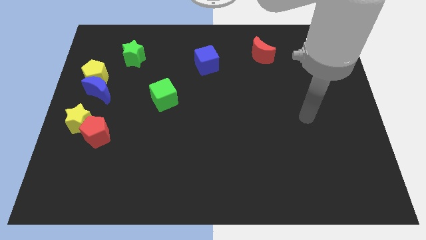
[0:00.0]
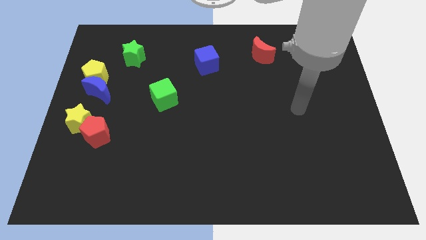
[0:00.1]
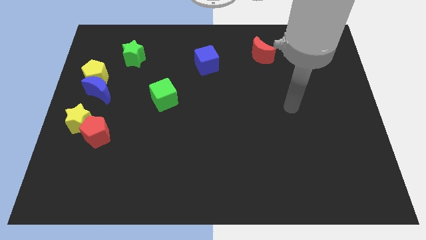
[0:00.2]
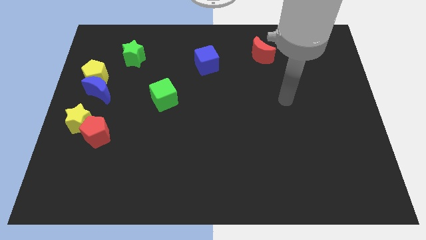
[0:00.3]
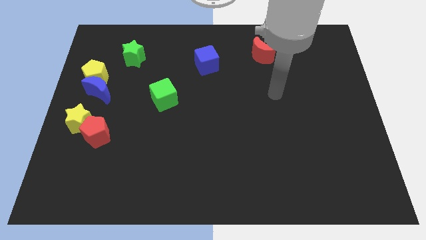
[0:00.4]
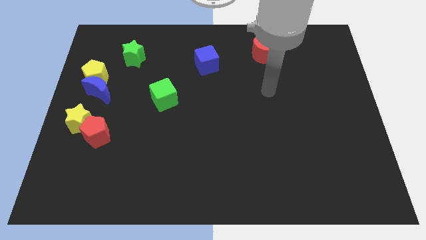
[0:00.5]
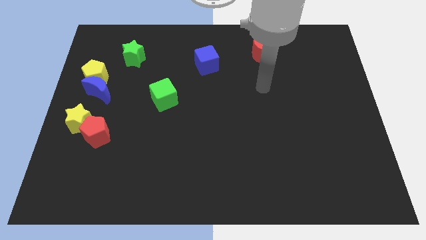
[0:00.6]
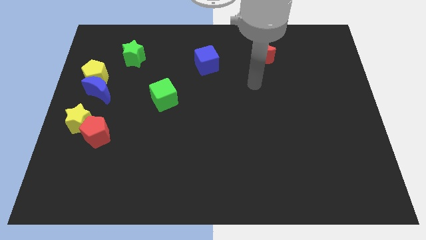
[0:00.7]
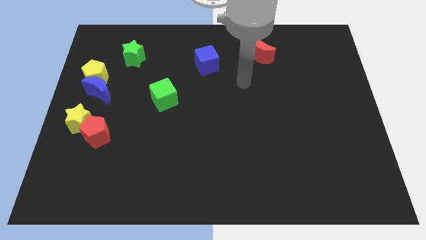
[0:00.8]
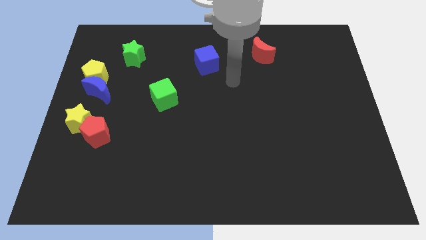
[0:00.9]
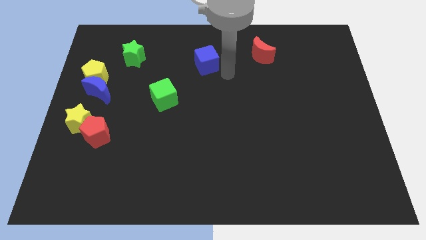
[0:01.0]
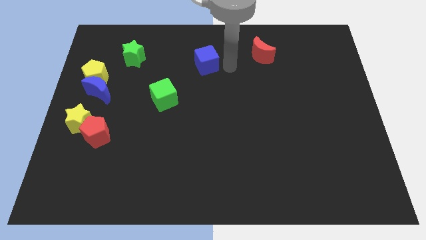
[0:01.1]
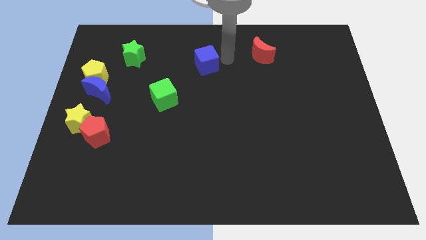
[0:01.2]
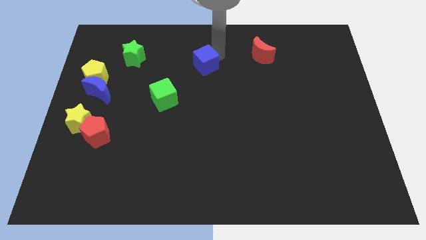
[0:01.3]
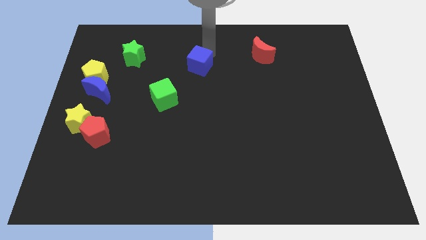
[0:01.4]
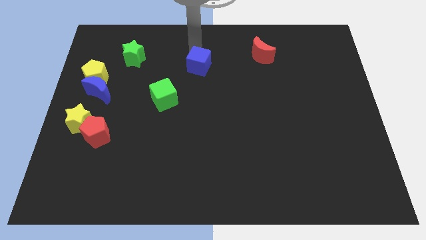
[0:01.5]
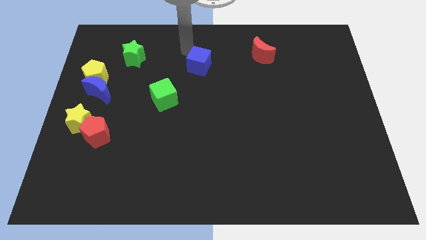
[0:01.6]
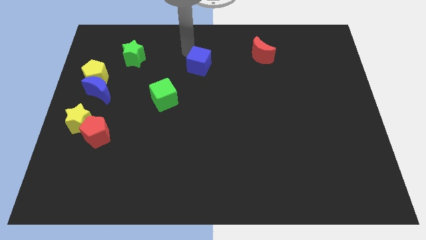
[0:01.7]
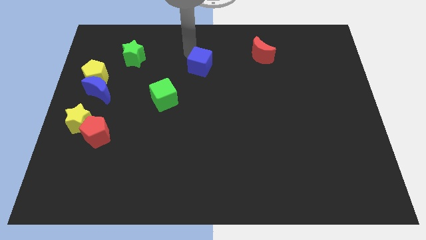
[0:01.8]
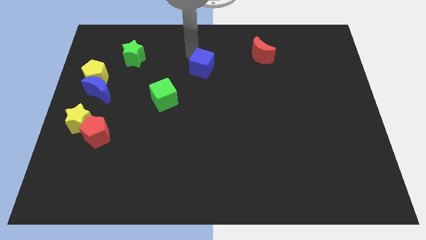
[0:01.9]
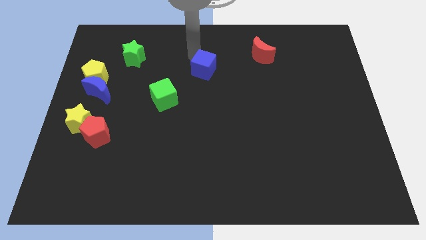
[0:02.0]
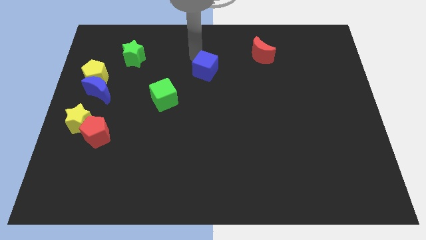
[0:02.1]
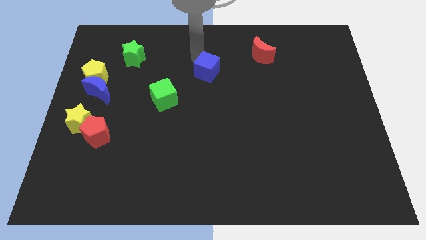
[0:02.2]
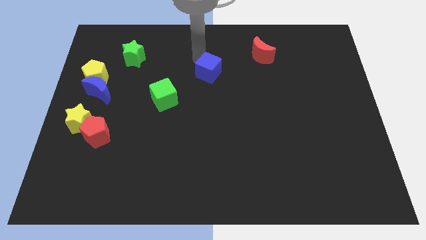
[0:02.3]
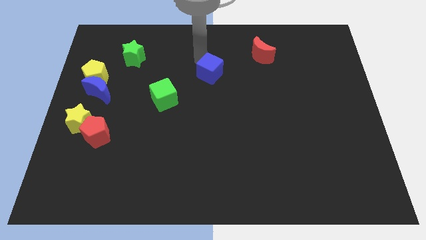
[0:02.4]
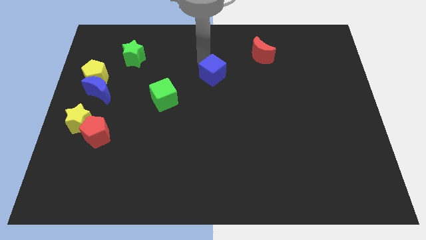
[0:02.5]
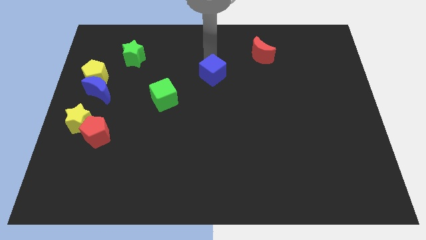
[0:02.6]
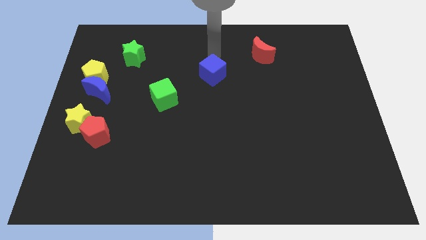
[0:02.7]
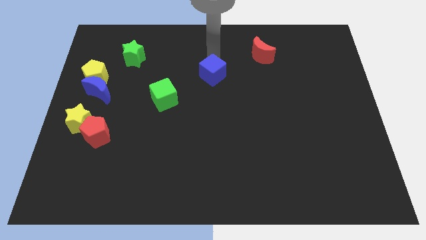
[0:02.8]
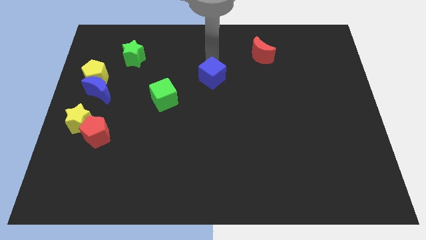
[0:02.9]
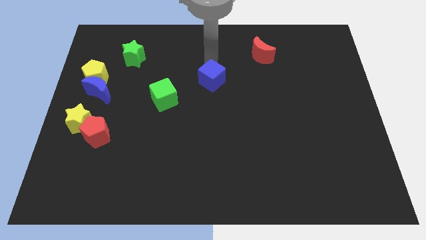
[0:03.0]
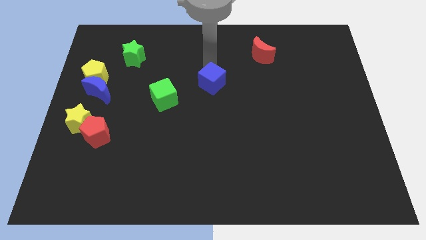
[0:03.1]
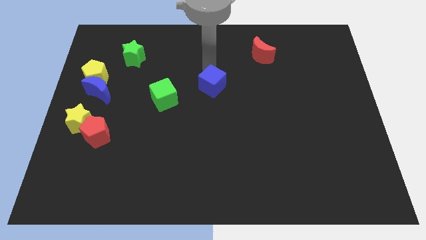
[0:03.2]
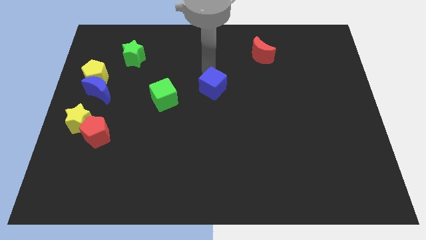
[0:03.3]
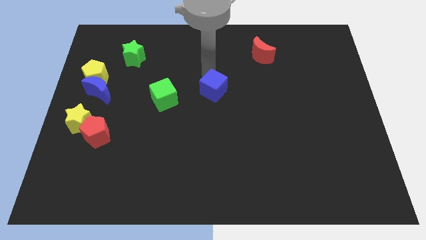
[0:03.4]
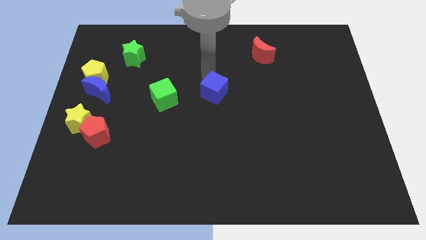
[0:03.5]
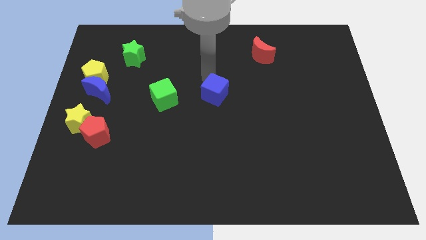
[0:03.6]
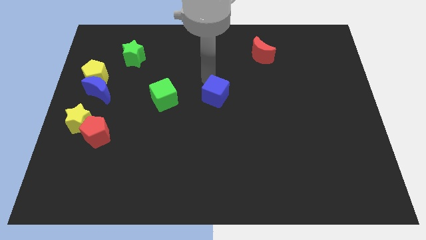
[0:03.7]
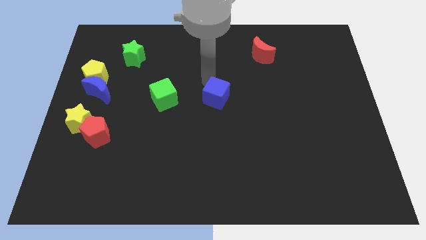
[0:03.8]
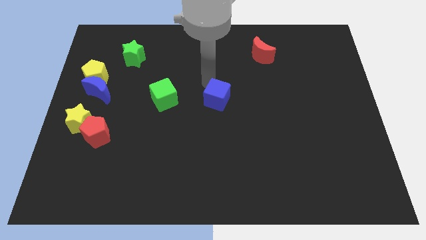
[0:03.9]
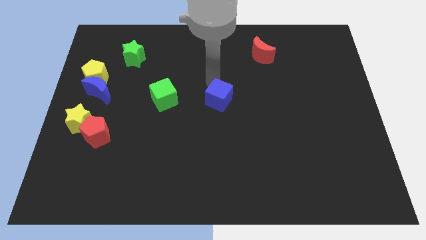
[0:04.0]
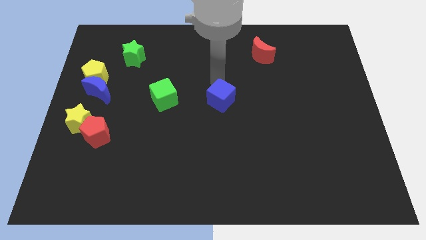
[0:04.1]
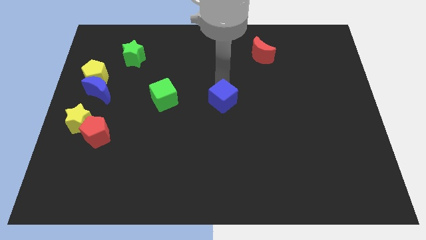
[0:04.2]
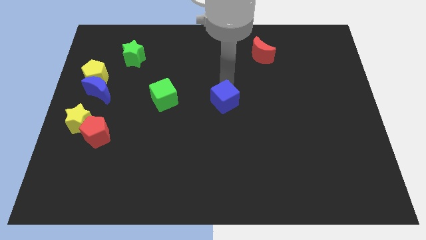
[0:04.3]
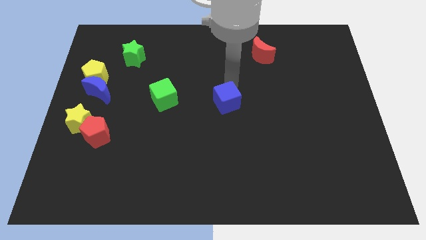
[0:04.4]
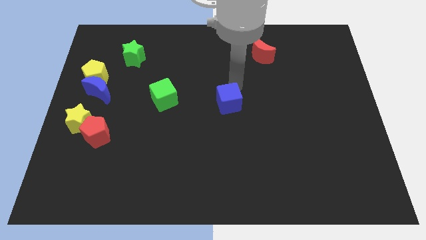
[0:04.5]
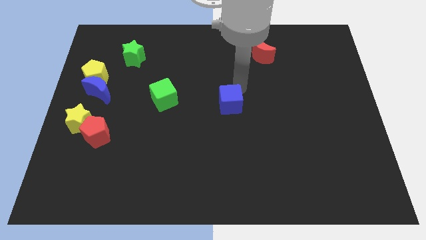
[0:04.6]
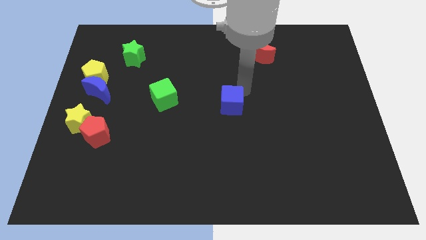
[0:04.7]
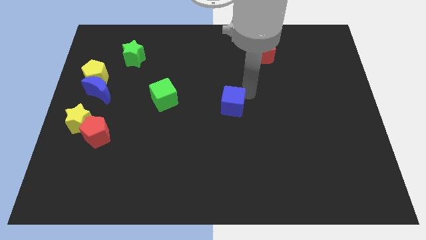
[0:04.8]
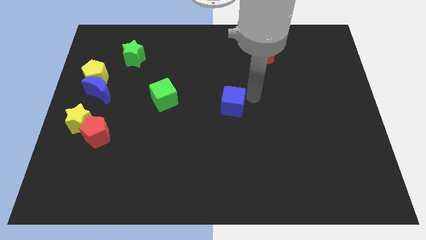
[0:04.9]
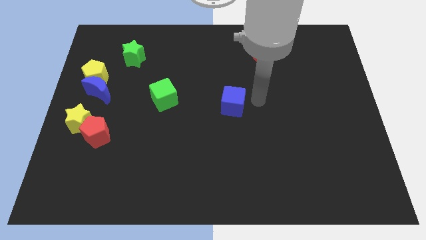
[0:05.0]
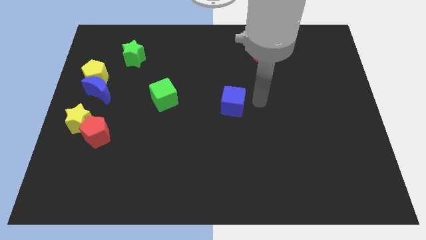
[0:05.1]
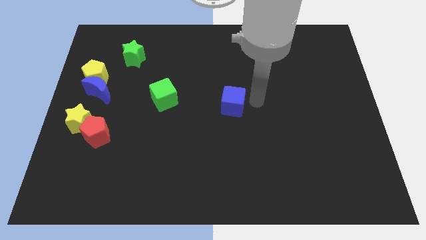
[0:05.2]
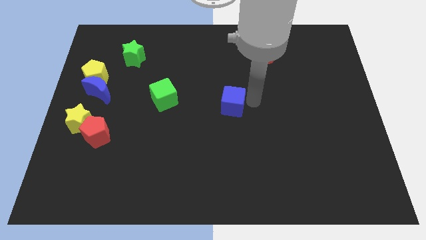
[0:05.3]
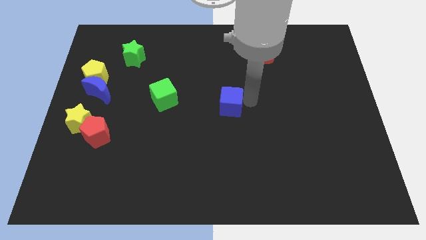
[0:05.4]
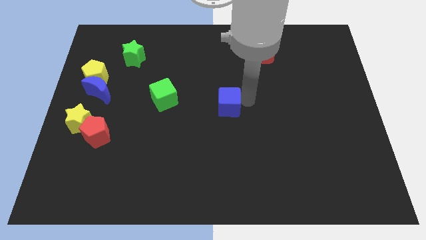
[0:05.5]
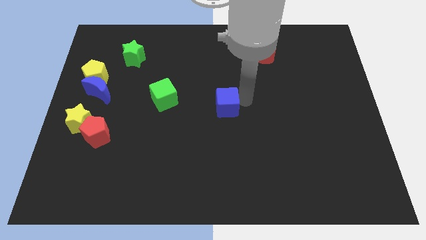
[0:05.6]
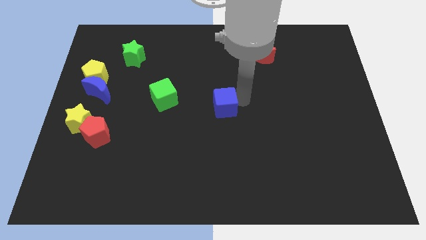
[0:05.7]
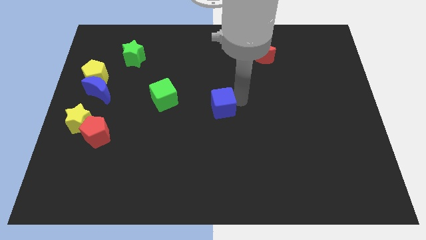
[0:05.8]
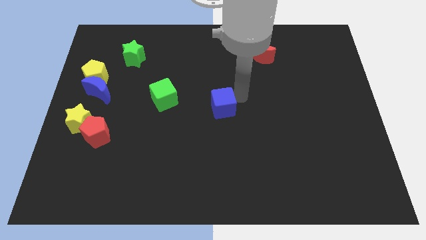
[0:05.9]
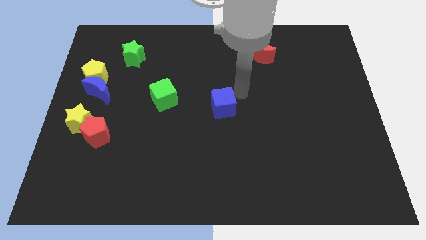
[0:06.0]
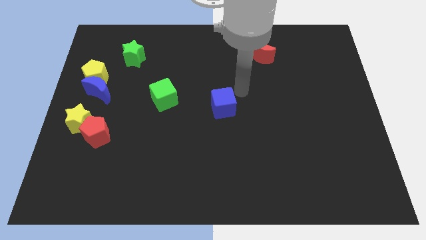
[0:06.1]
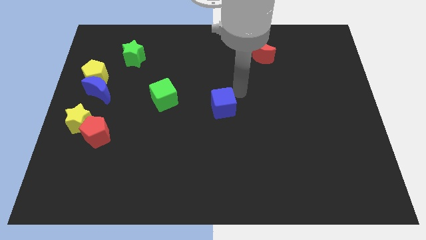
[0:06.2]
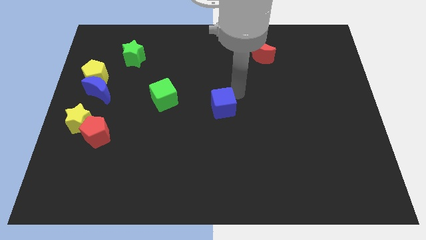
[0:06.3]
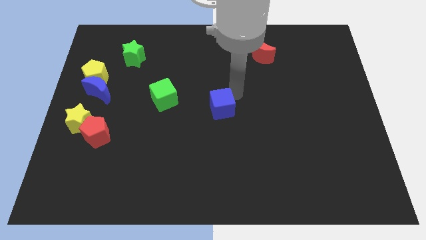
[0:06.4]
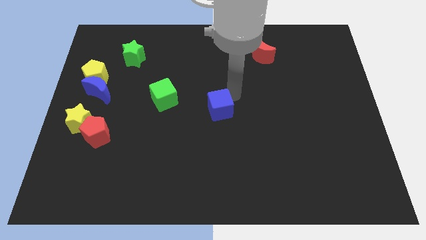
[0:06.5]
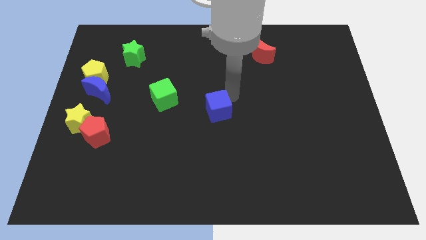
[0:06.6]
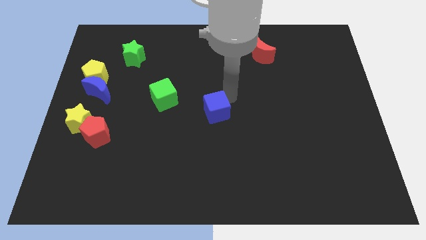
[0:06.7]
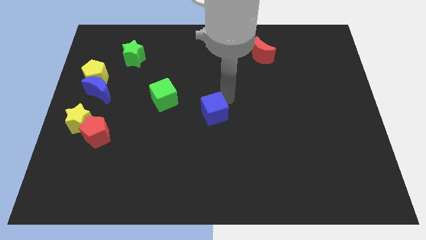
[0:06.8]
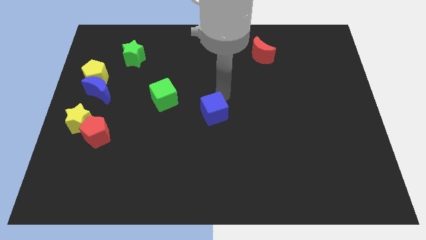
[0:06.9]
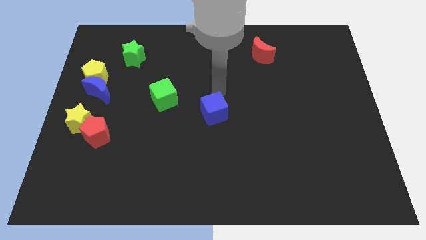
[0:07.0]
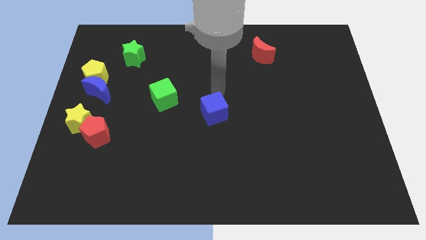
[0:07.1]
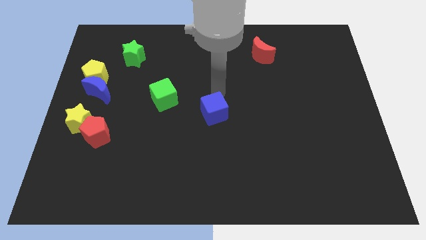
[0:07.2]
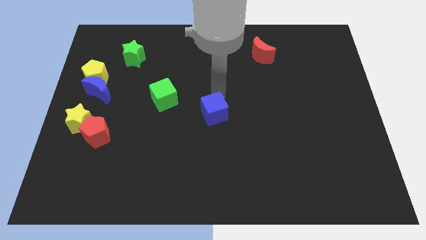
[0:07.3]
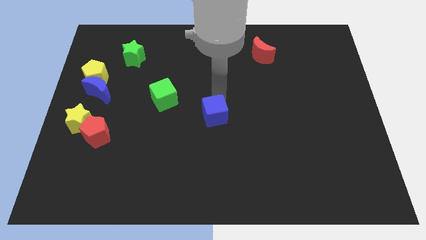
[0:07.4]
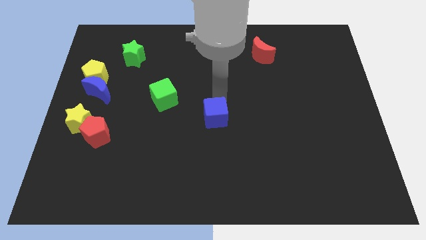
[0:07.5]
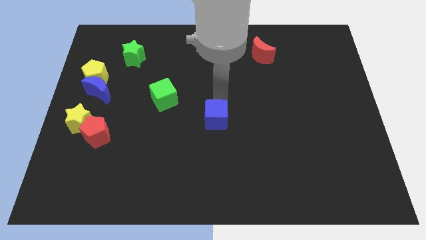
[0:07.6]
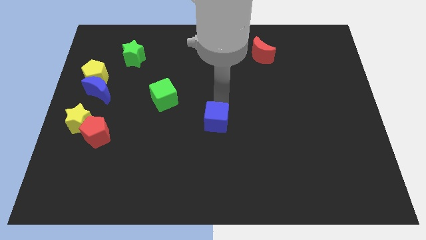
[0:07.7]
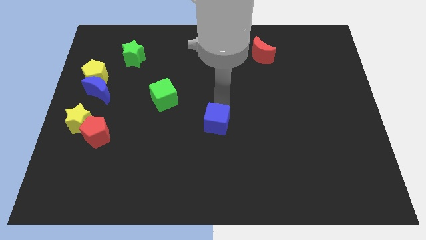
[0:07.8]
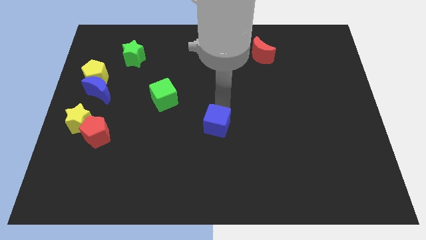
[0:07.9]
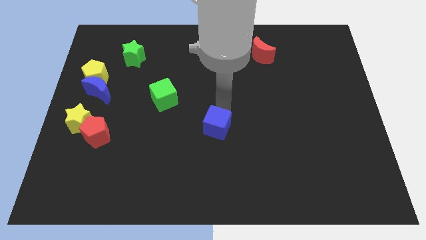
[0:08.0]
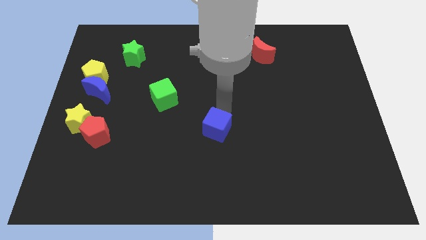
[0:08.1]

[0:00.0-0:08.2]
push the blue cube downwards

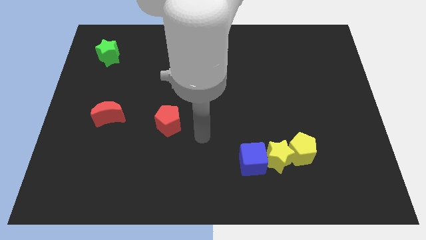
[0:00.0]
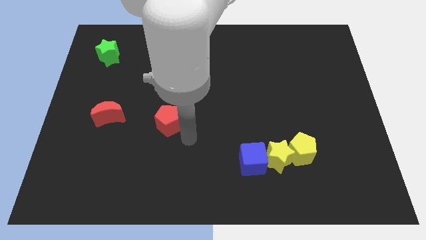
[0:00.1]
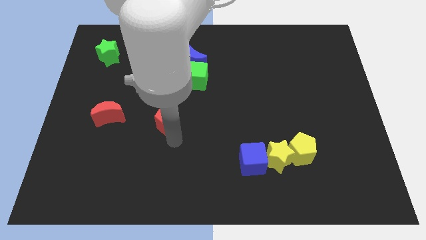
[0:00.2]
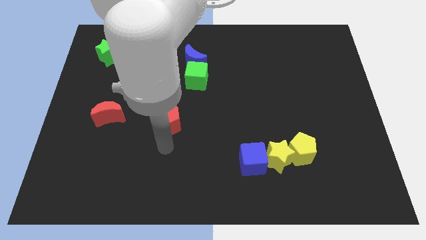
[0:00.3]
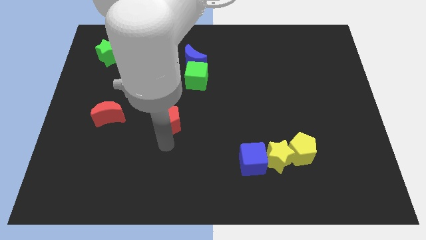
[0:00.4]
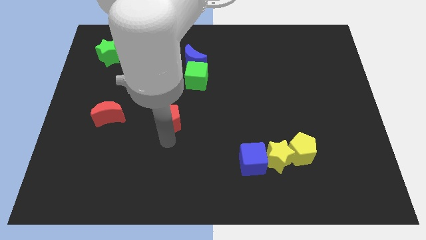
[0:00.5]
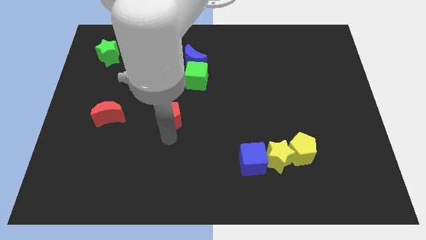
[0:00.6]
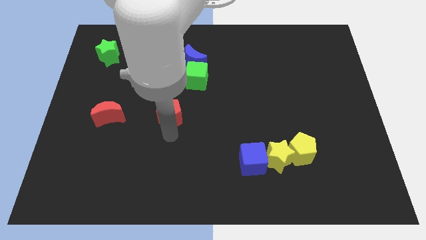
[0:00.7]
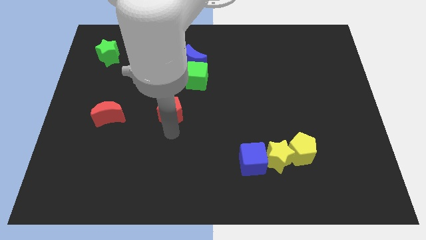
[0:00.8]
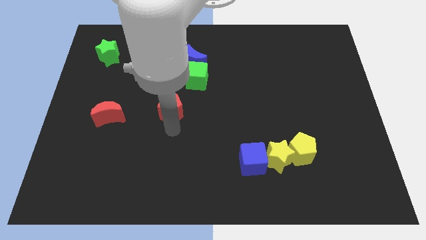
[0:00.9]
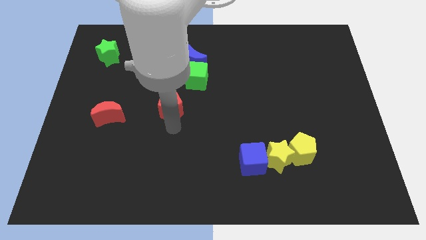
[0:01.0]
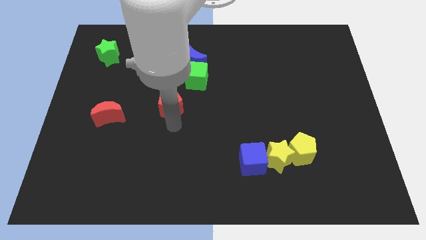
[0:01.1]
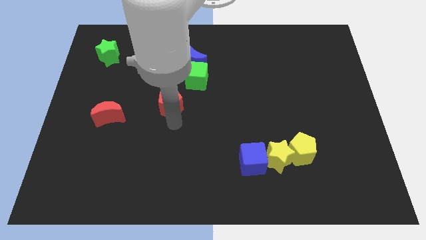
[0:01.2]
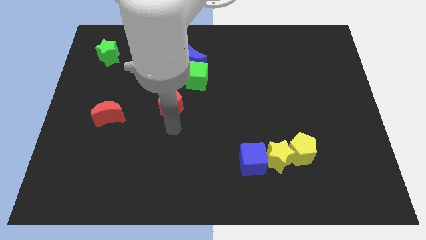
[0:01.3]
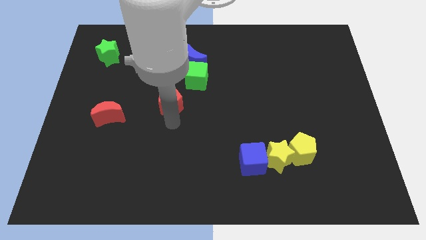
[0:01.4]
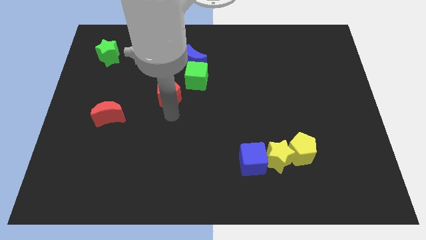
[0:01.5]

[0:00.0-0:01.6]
move the red pentagon up a little bit
